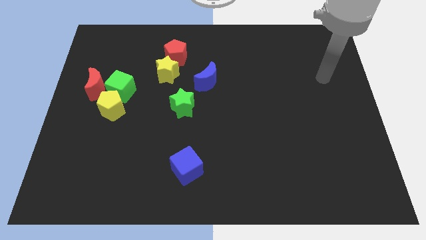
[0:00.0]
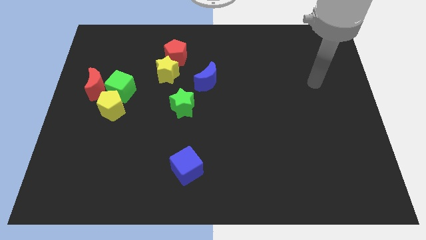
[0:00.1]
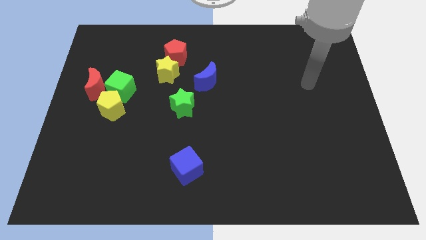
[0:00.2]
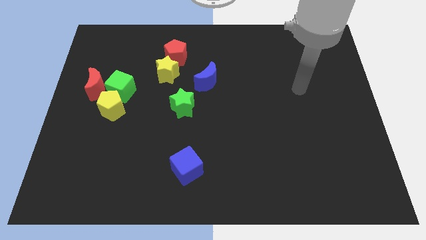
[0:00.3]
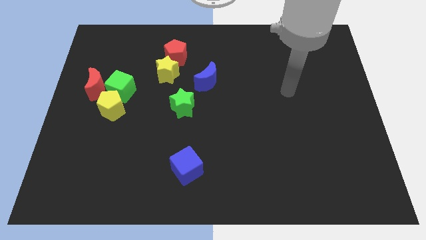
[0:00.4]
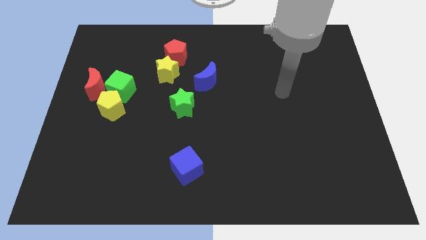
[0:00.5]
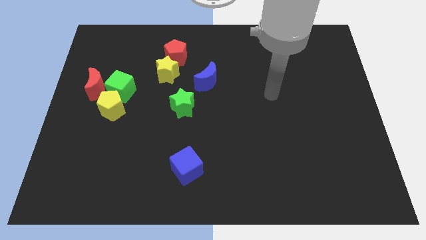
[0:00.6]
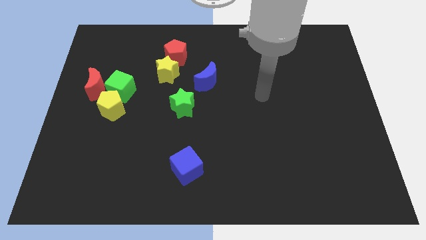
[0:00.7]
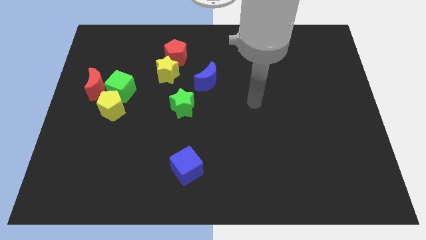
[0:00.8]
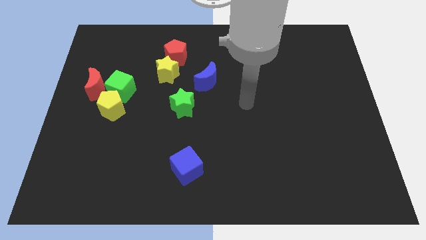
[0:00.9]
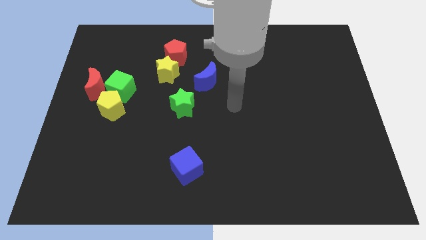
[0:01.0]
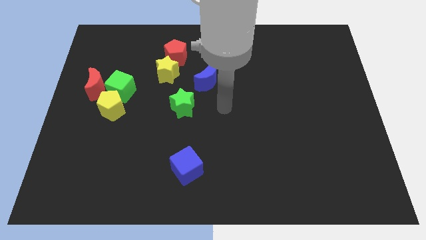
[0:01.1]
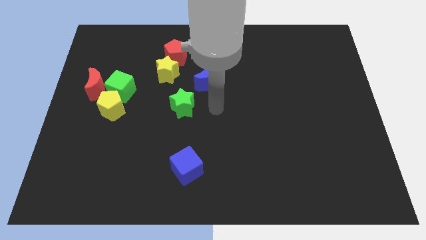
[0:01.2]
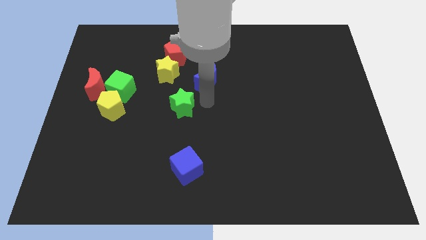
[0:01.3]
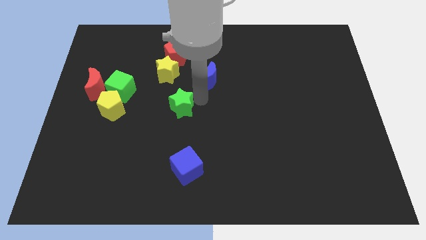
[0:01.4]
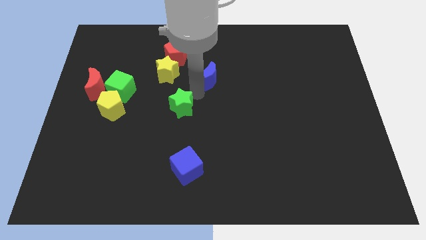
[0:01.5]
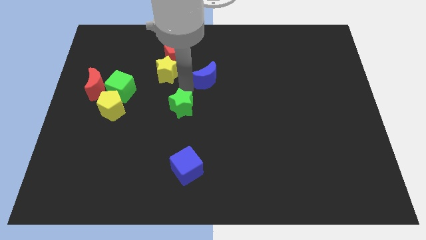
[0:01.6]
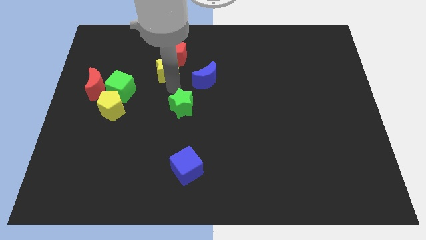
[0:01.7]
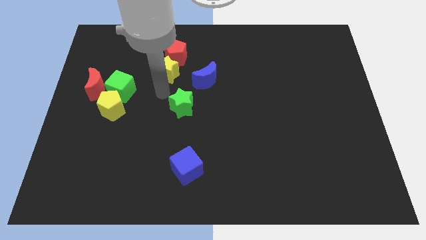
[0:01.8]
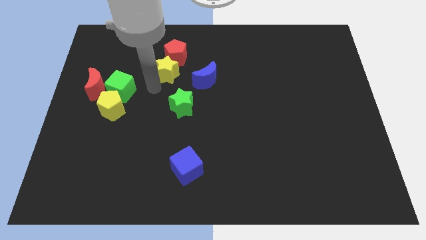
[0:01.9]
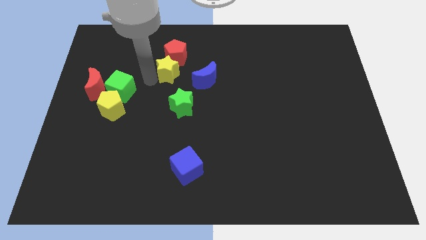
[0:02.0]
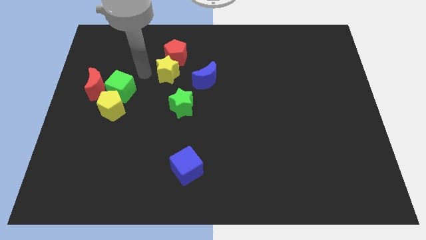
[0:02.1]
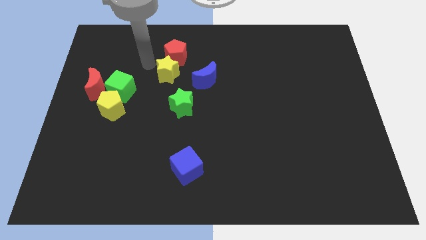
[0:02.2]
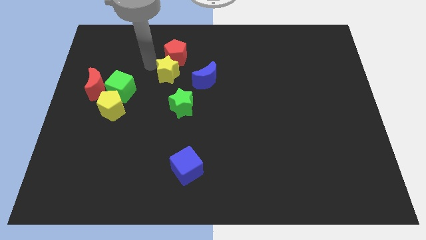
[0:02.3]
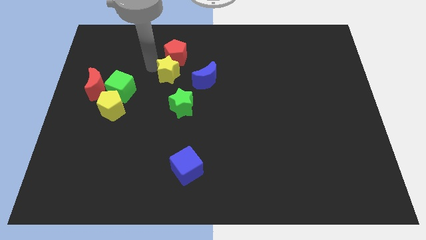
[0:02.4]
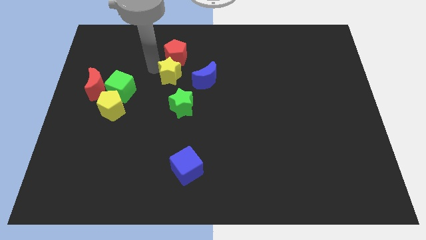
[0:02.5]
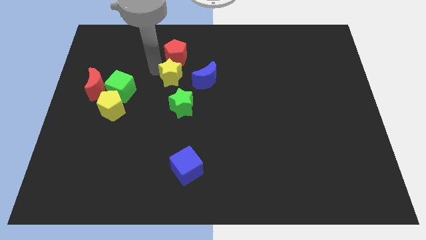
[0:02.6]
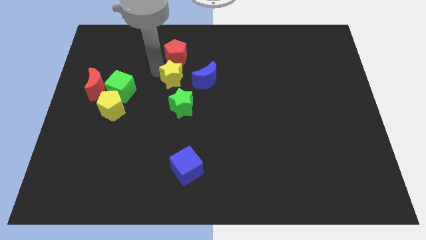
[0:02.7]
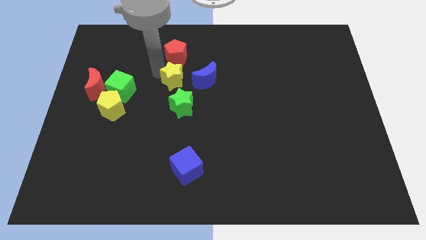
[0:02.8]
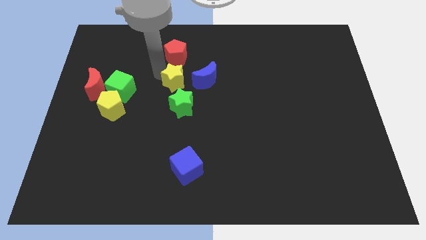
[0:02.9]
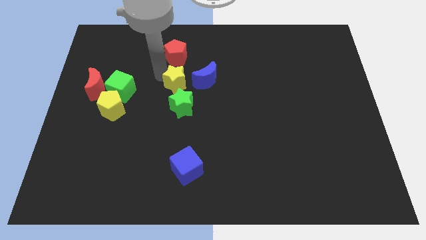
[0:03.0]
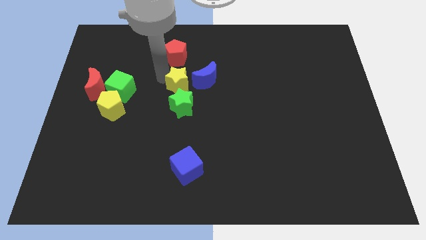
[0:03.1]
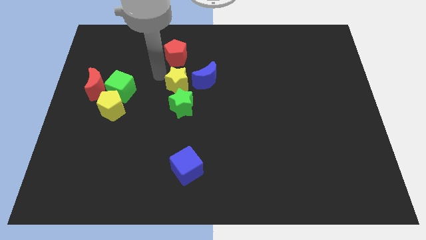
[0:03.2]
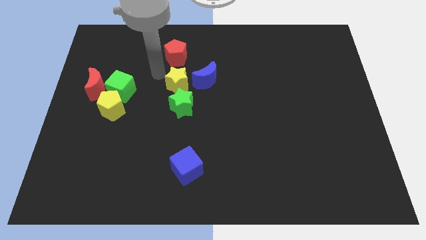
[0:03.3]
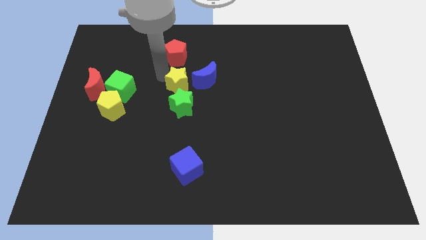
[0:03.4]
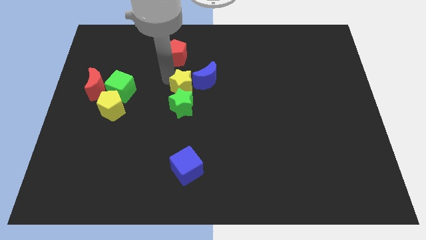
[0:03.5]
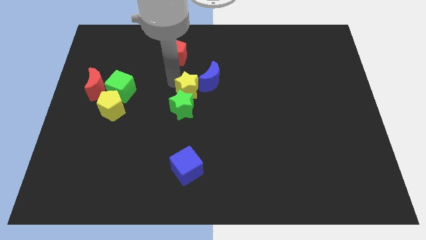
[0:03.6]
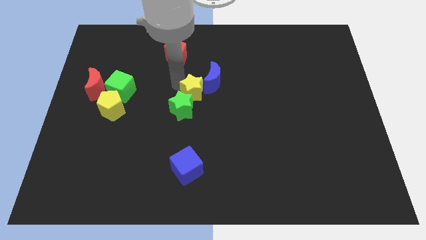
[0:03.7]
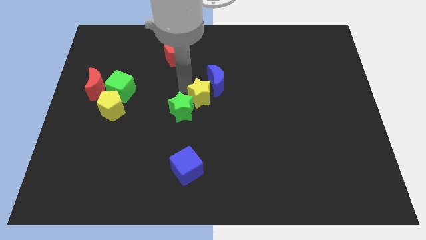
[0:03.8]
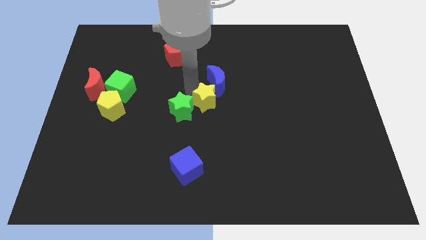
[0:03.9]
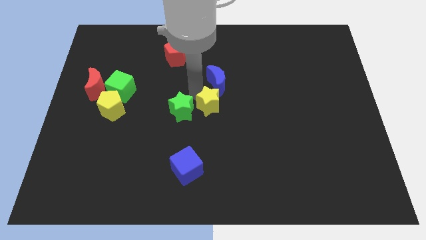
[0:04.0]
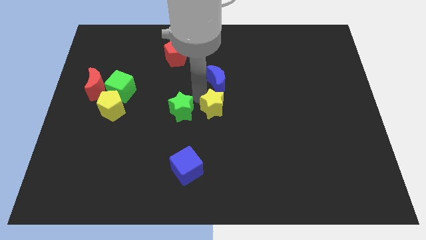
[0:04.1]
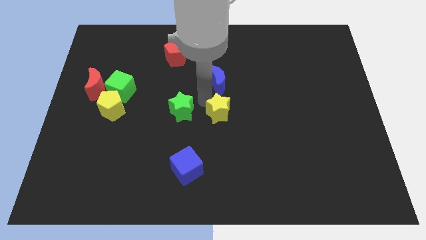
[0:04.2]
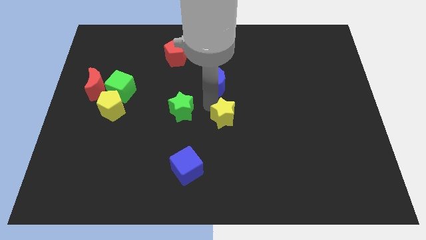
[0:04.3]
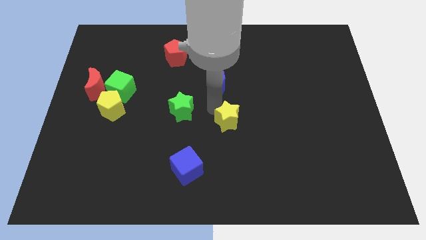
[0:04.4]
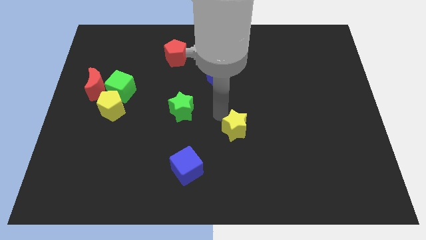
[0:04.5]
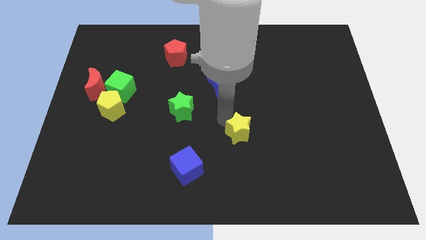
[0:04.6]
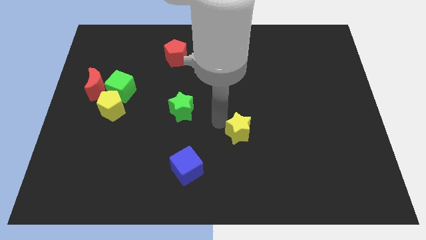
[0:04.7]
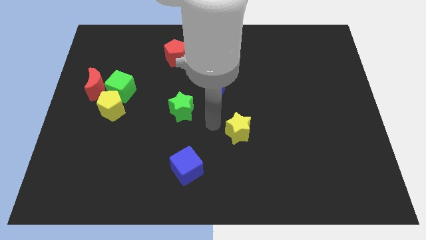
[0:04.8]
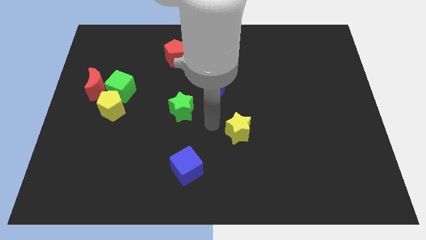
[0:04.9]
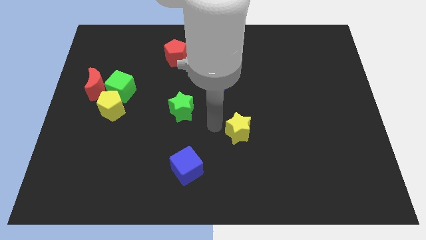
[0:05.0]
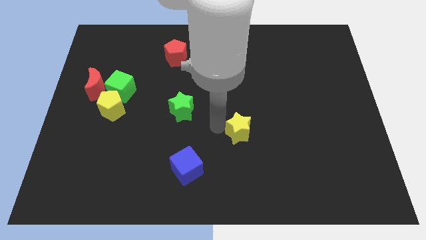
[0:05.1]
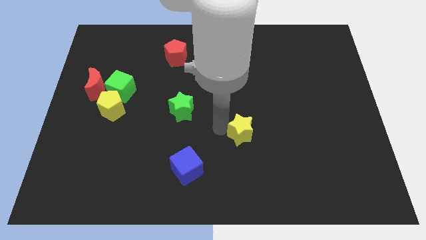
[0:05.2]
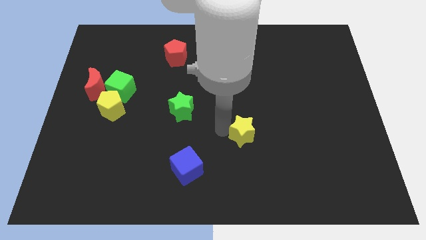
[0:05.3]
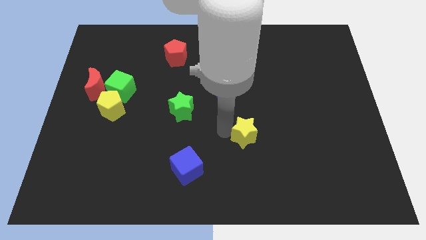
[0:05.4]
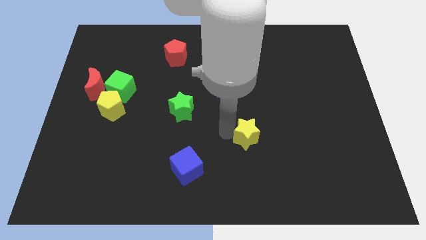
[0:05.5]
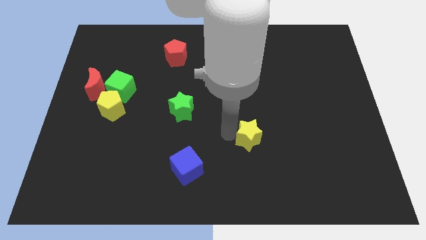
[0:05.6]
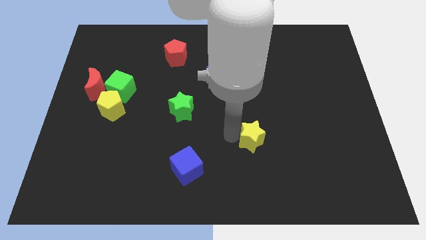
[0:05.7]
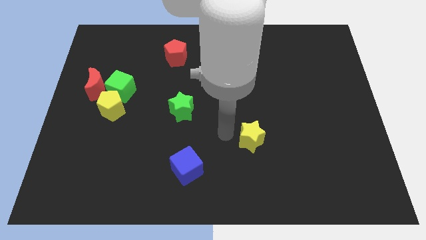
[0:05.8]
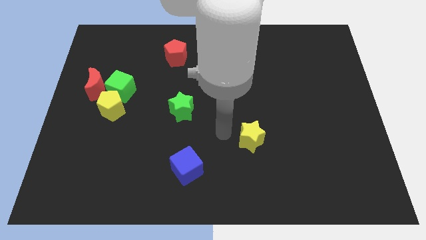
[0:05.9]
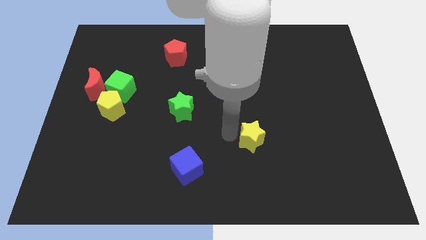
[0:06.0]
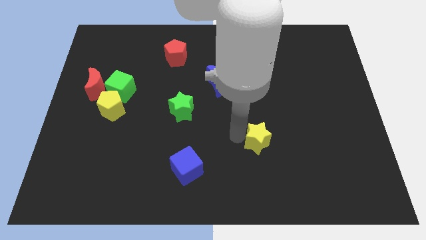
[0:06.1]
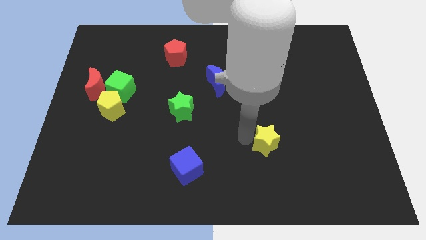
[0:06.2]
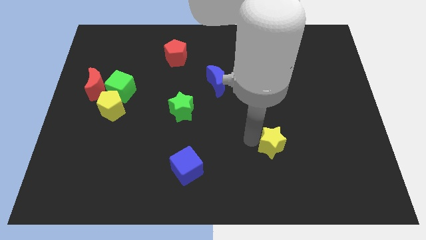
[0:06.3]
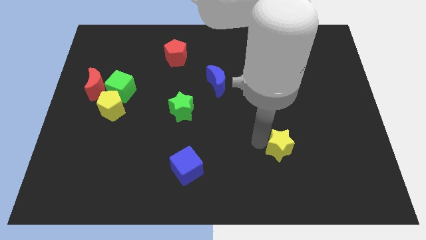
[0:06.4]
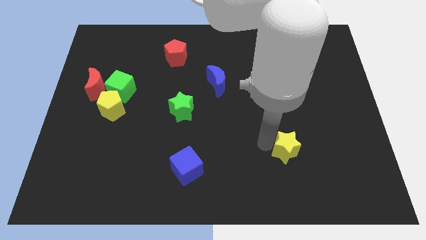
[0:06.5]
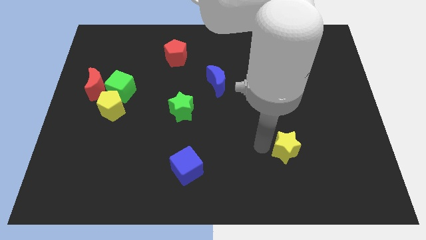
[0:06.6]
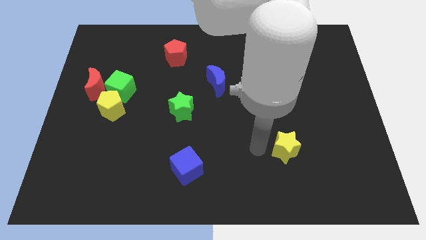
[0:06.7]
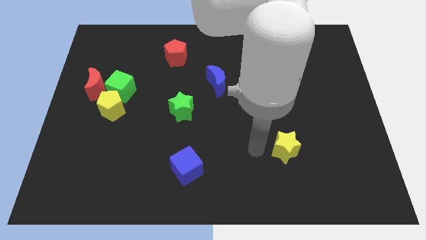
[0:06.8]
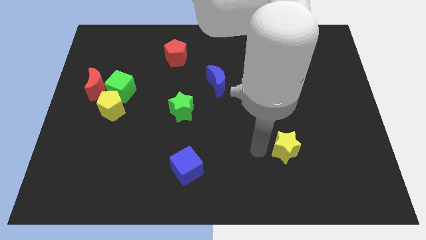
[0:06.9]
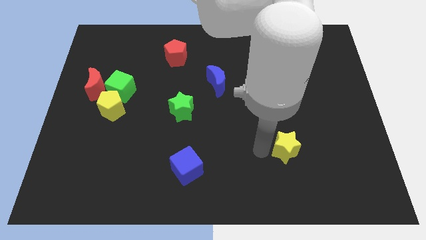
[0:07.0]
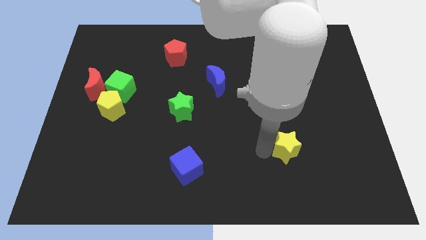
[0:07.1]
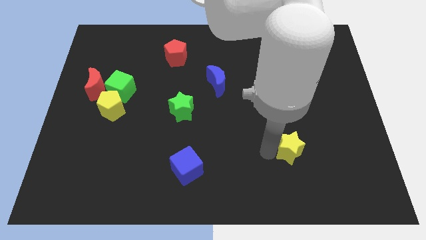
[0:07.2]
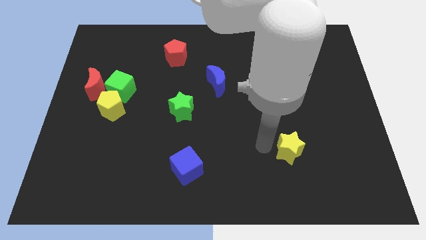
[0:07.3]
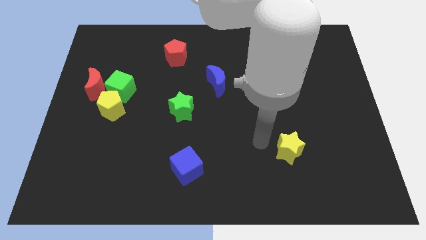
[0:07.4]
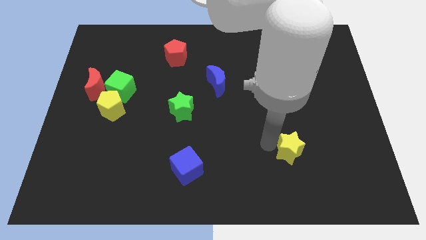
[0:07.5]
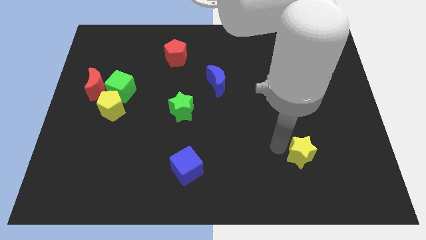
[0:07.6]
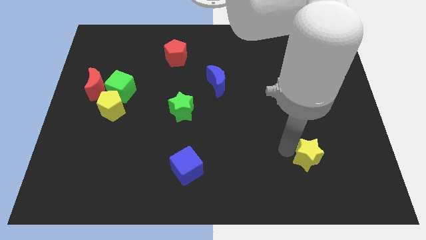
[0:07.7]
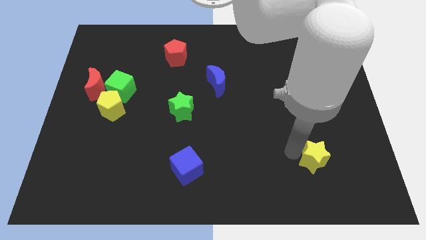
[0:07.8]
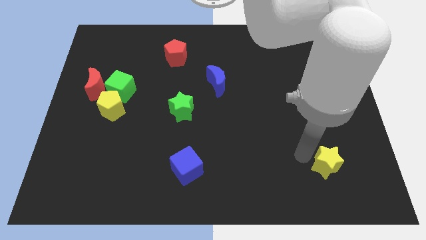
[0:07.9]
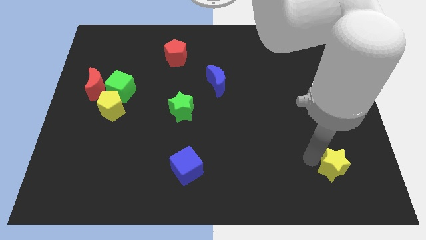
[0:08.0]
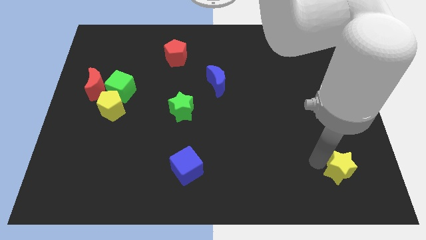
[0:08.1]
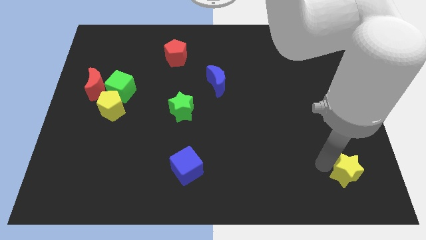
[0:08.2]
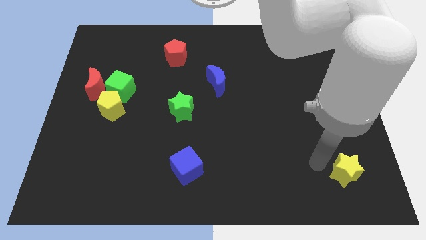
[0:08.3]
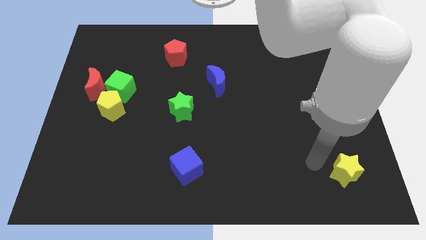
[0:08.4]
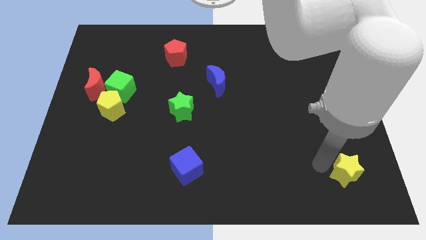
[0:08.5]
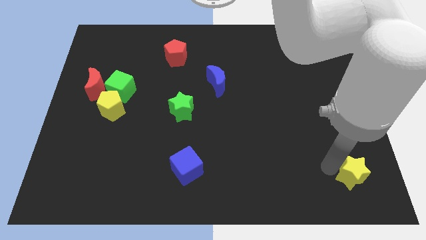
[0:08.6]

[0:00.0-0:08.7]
push the yellow star to the bottom right of the board
